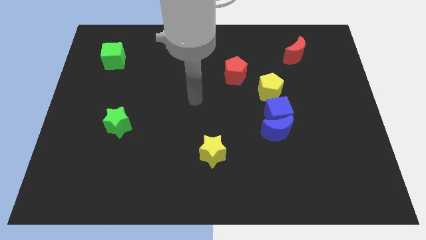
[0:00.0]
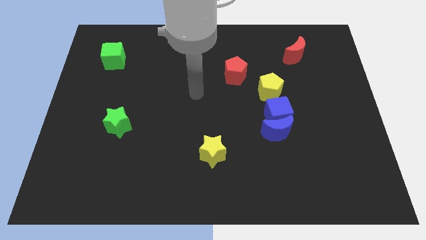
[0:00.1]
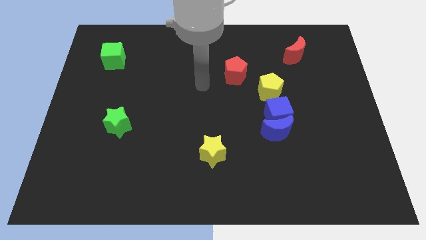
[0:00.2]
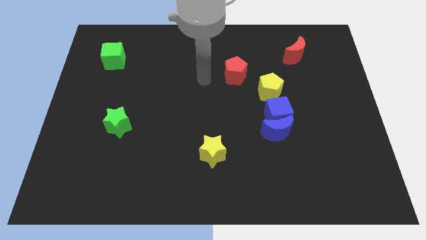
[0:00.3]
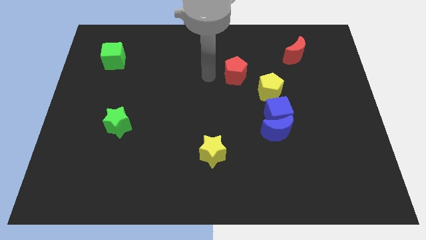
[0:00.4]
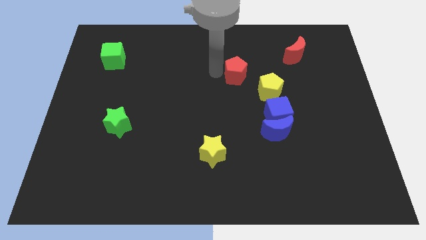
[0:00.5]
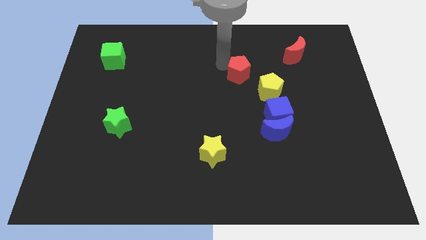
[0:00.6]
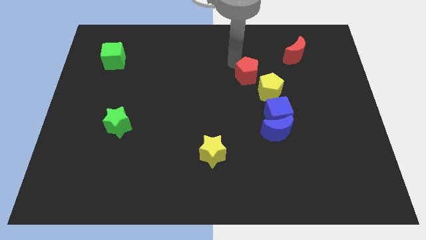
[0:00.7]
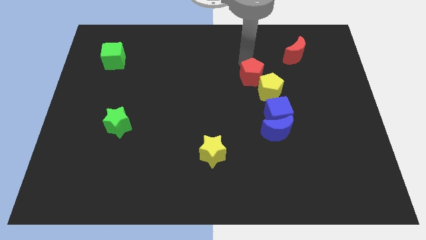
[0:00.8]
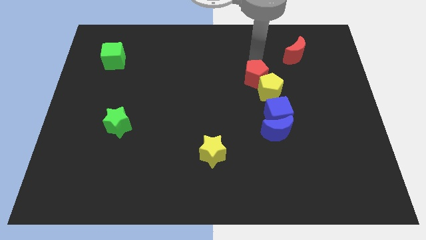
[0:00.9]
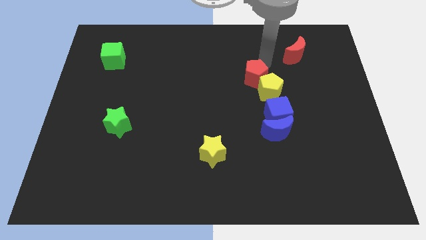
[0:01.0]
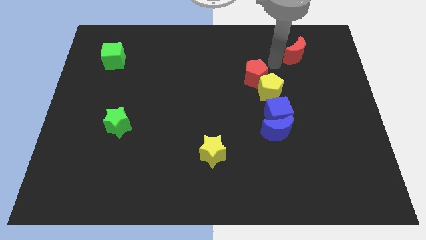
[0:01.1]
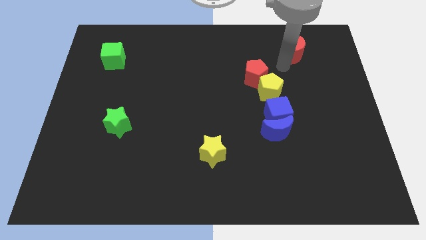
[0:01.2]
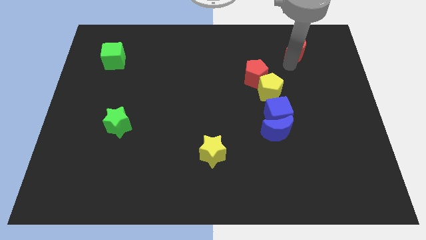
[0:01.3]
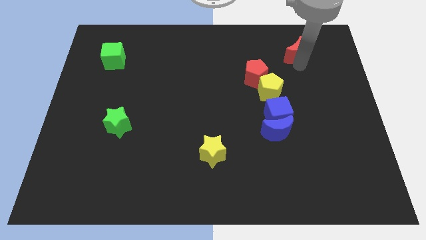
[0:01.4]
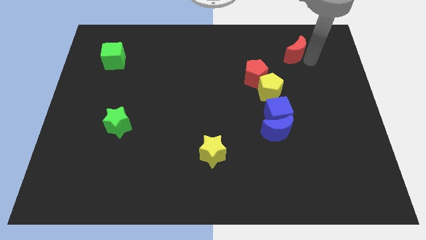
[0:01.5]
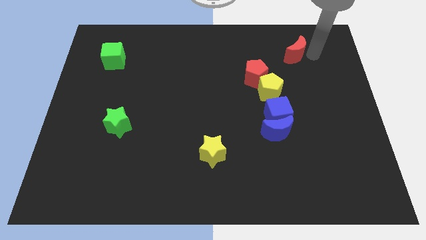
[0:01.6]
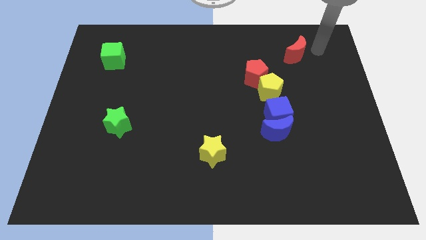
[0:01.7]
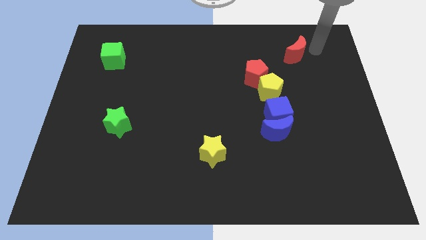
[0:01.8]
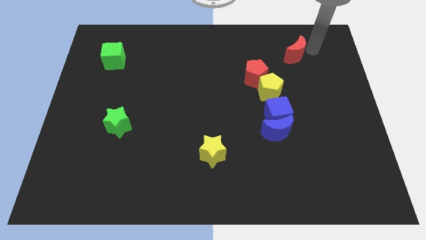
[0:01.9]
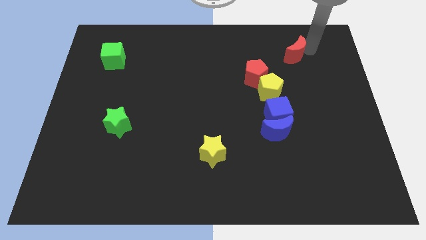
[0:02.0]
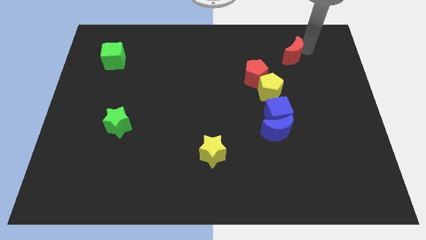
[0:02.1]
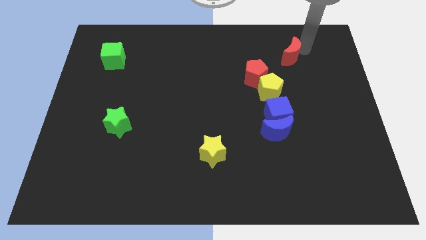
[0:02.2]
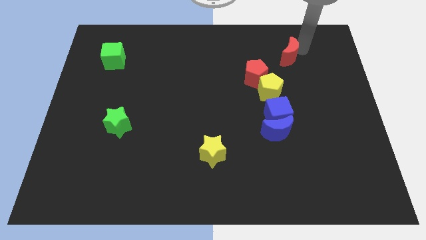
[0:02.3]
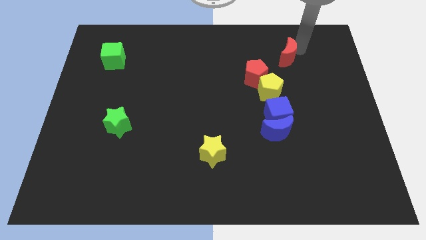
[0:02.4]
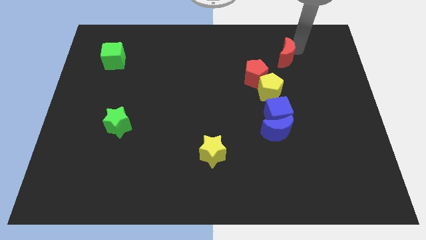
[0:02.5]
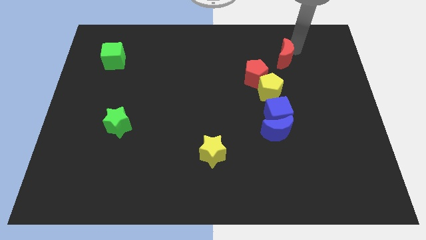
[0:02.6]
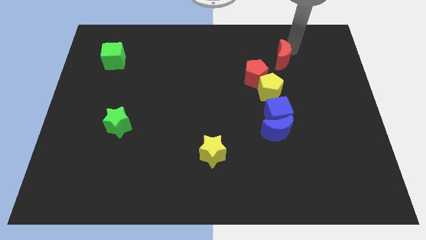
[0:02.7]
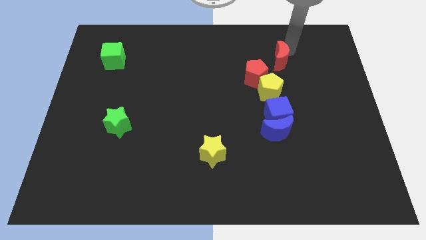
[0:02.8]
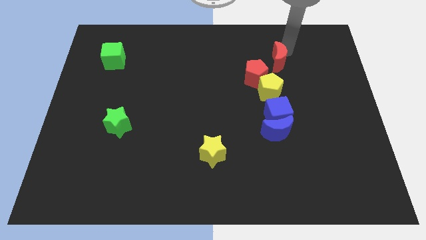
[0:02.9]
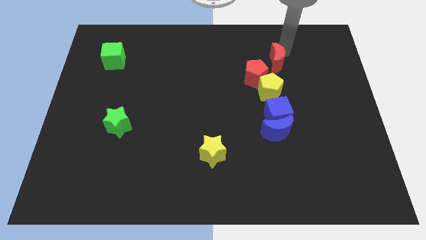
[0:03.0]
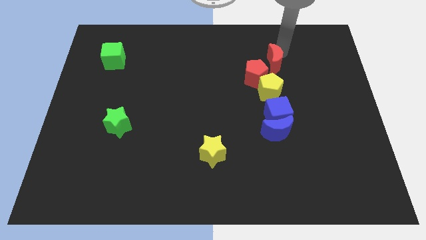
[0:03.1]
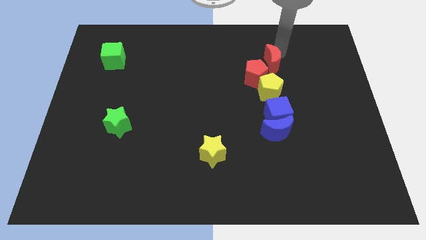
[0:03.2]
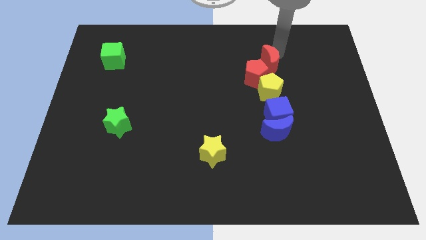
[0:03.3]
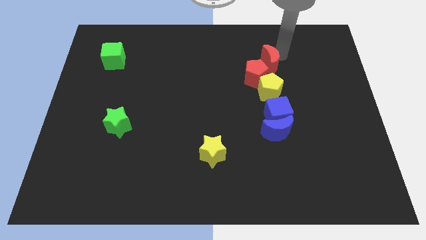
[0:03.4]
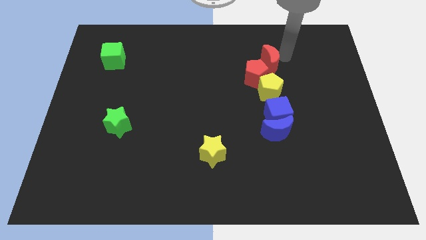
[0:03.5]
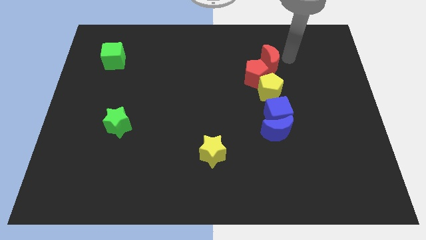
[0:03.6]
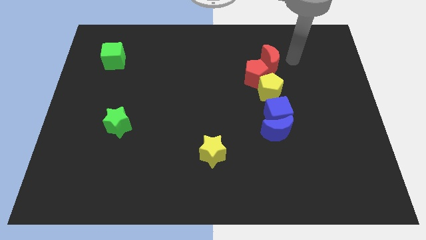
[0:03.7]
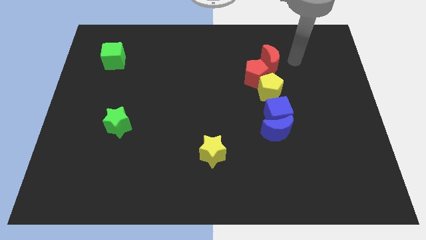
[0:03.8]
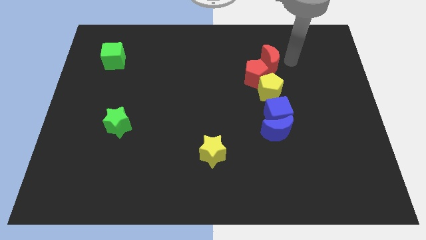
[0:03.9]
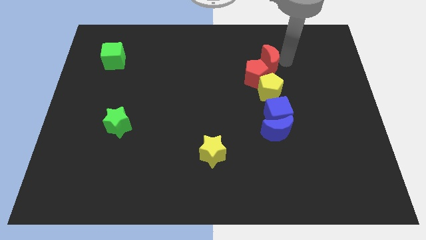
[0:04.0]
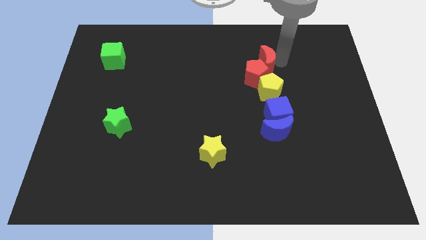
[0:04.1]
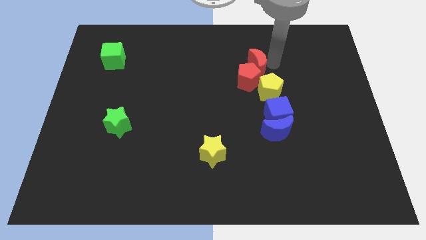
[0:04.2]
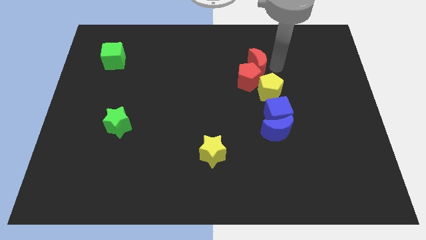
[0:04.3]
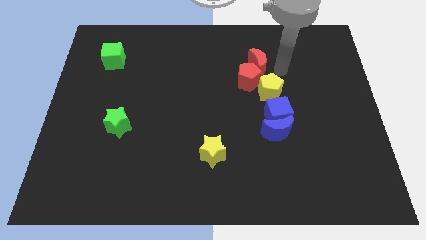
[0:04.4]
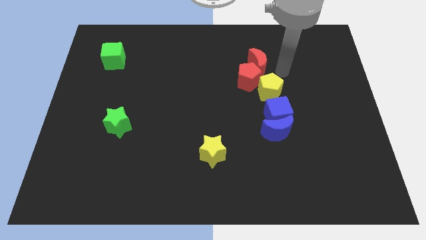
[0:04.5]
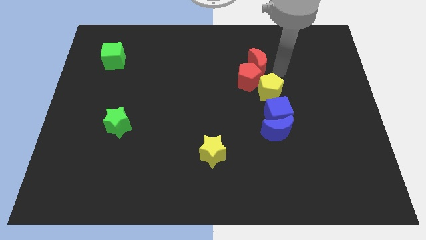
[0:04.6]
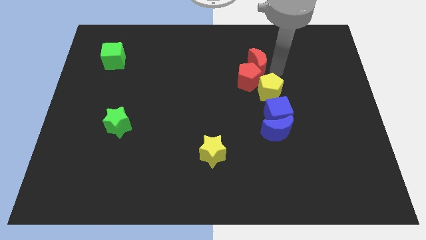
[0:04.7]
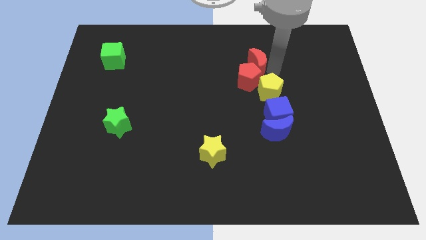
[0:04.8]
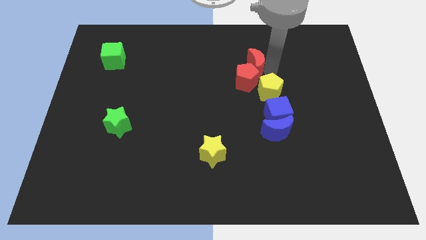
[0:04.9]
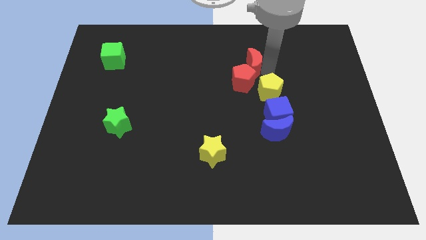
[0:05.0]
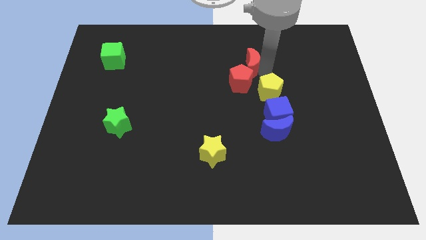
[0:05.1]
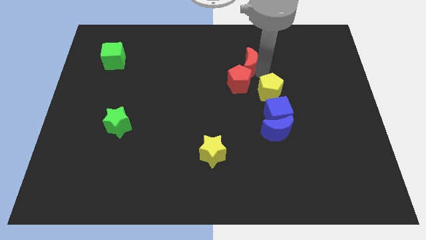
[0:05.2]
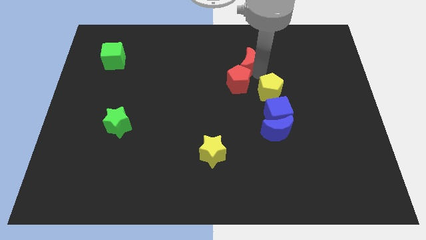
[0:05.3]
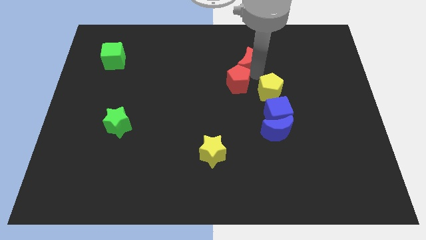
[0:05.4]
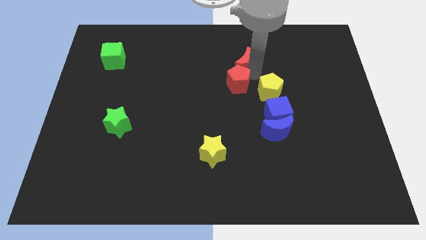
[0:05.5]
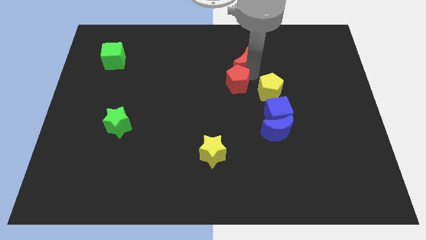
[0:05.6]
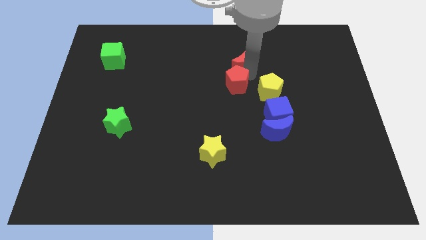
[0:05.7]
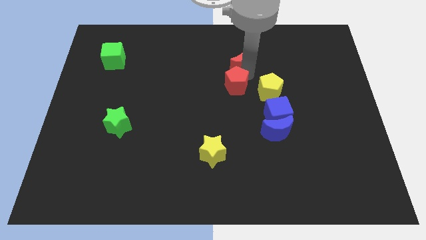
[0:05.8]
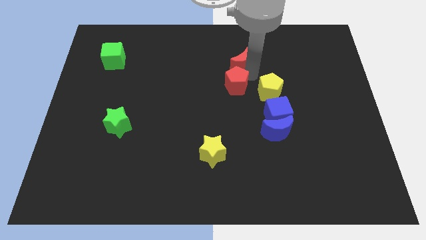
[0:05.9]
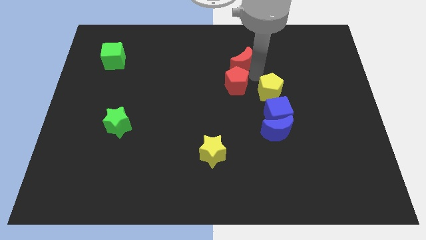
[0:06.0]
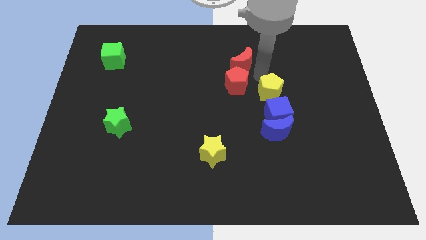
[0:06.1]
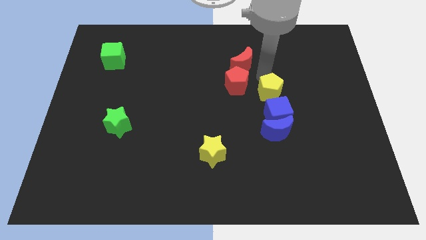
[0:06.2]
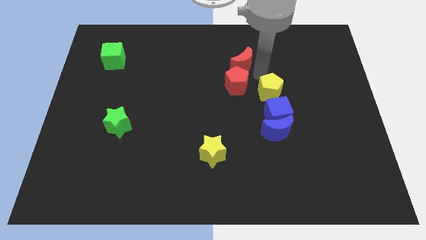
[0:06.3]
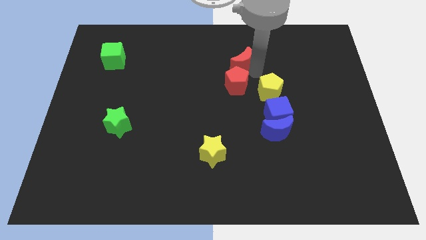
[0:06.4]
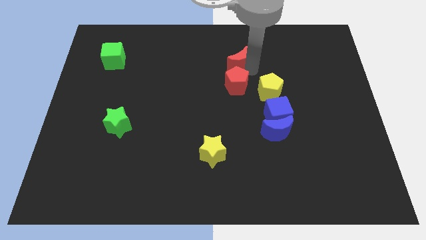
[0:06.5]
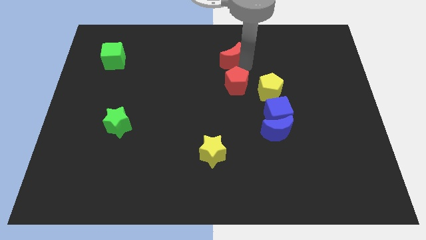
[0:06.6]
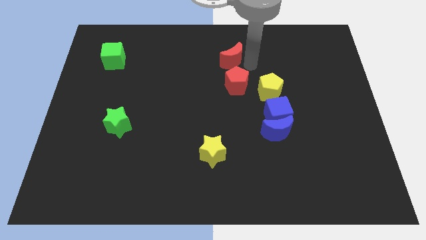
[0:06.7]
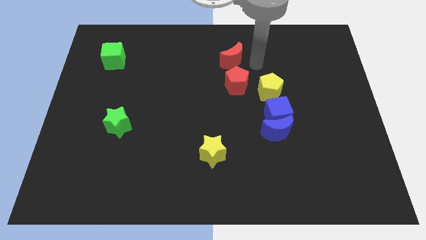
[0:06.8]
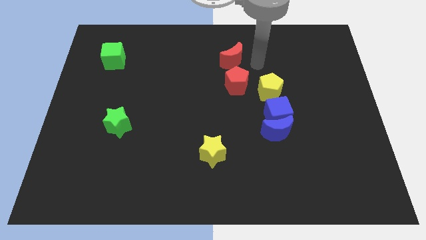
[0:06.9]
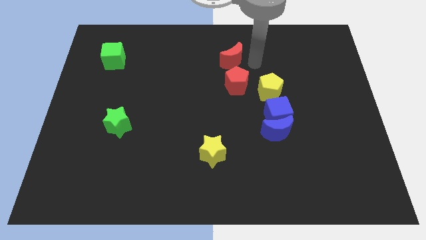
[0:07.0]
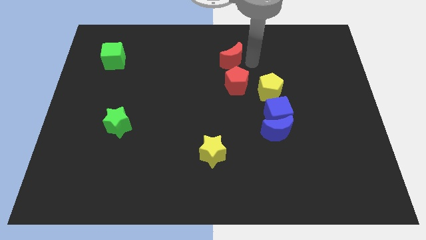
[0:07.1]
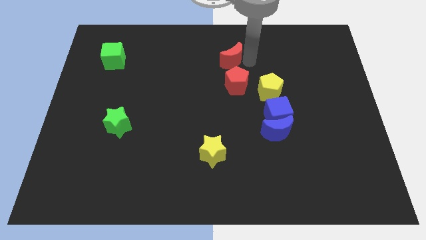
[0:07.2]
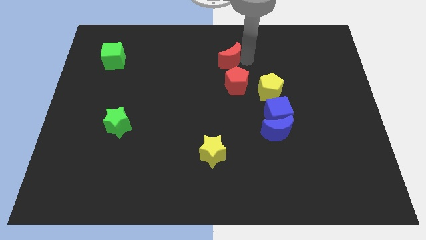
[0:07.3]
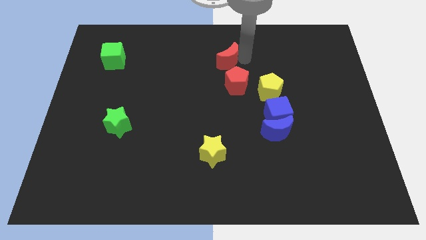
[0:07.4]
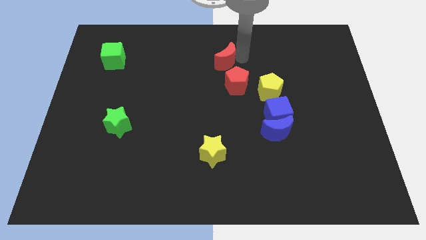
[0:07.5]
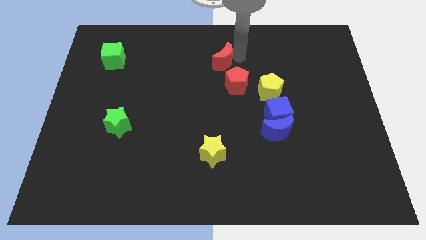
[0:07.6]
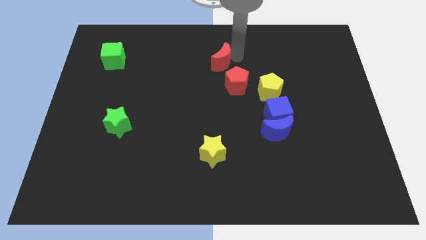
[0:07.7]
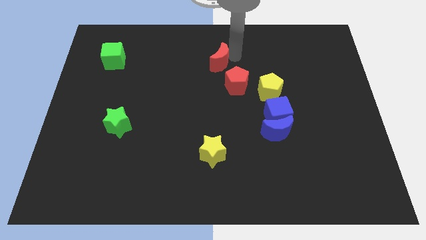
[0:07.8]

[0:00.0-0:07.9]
slide the red moon left
